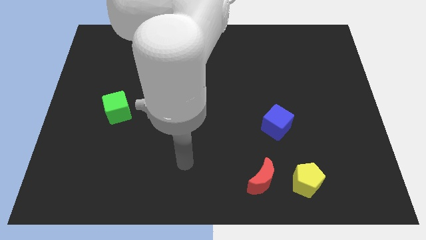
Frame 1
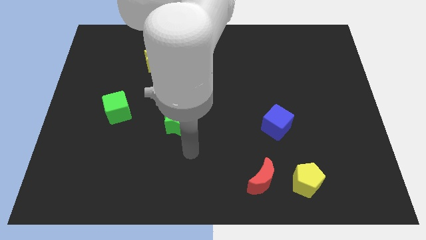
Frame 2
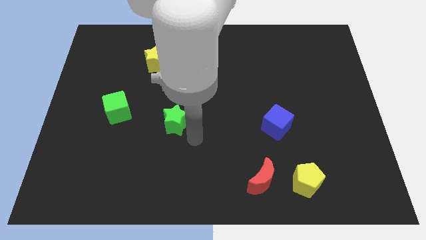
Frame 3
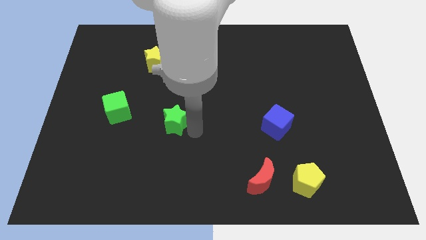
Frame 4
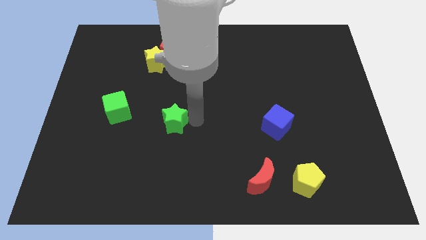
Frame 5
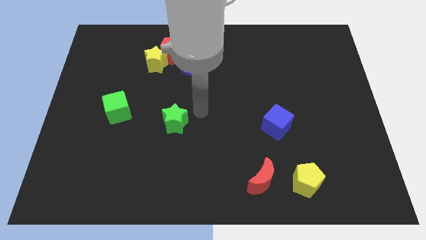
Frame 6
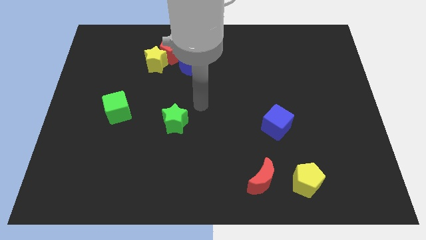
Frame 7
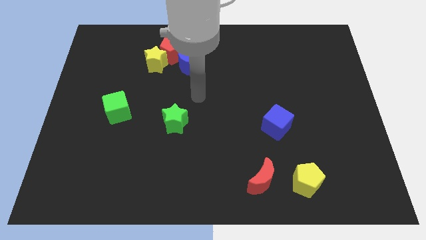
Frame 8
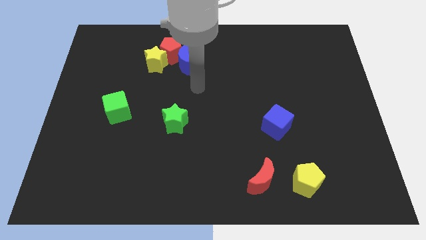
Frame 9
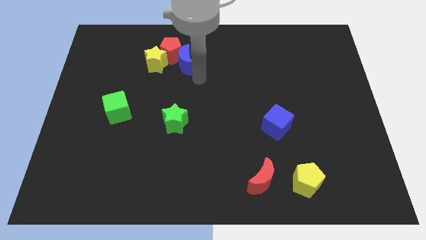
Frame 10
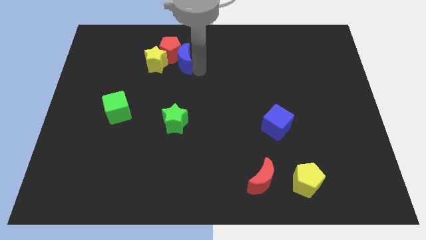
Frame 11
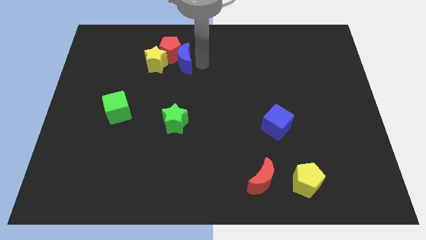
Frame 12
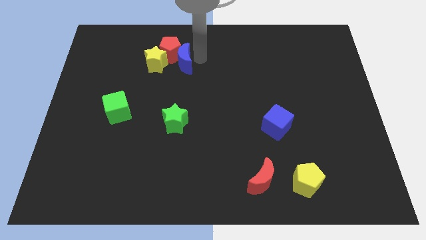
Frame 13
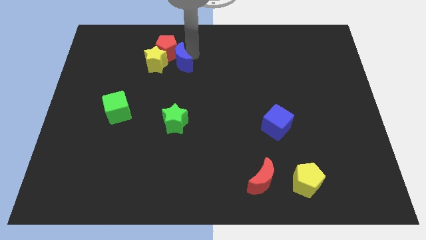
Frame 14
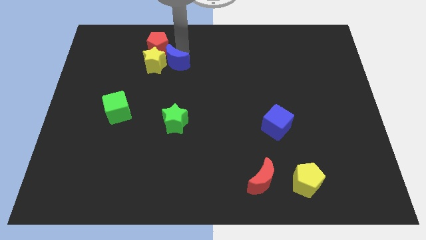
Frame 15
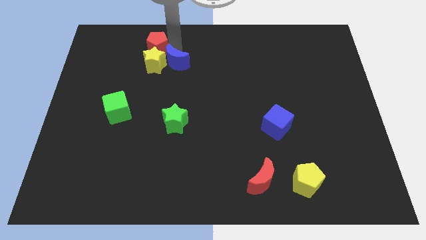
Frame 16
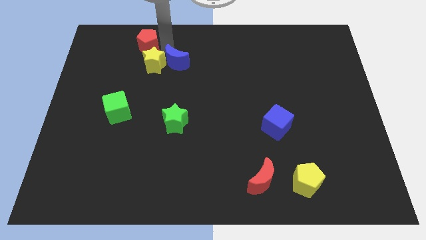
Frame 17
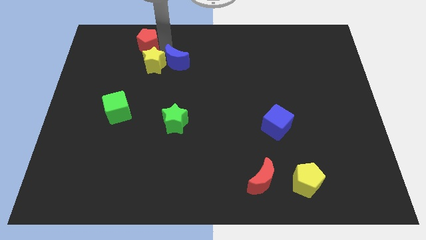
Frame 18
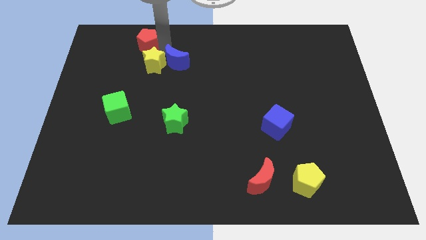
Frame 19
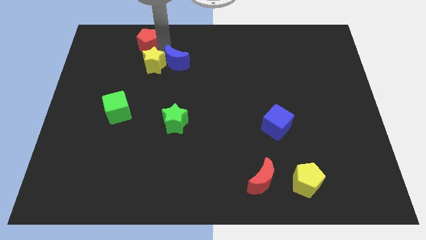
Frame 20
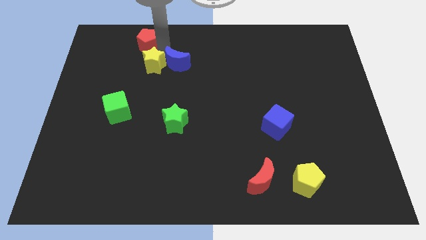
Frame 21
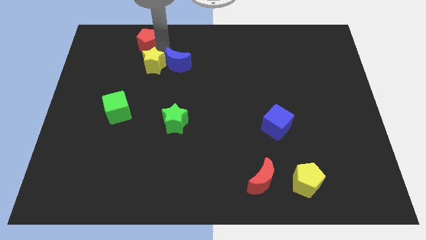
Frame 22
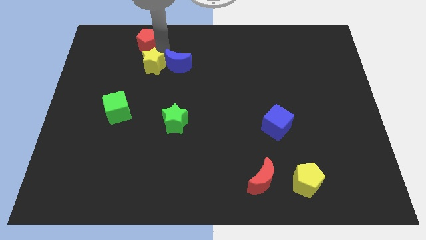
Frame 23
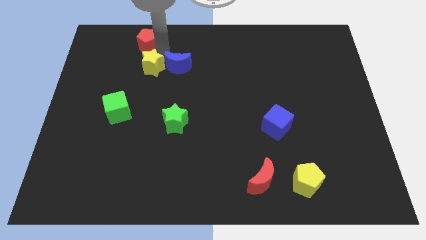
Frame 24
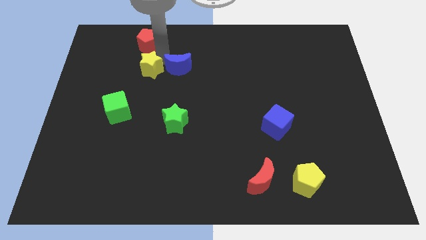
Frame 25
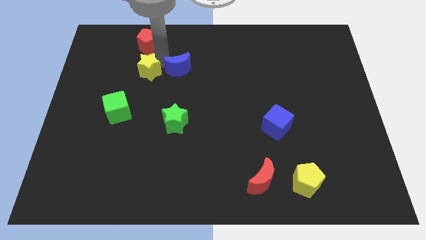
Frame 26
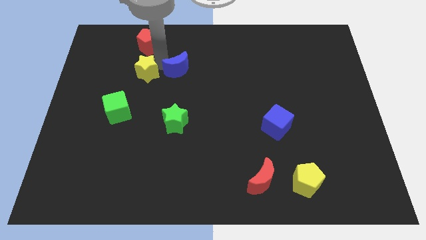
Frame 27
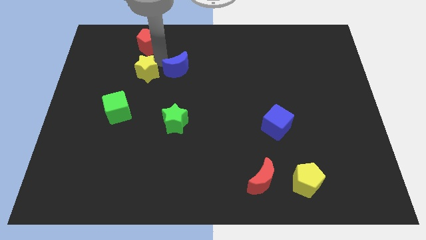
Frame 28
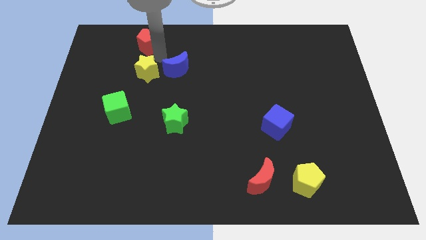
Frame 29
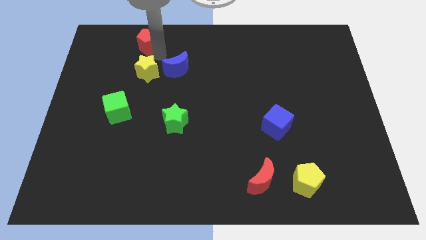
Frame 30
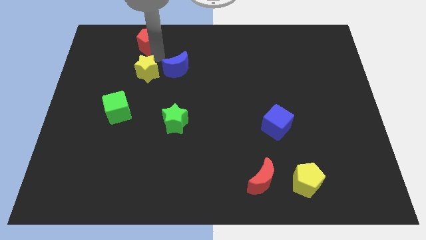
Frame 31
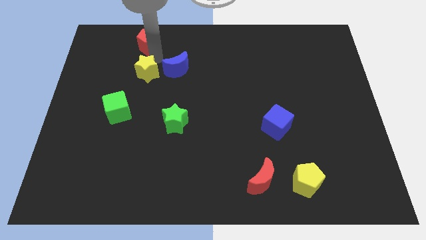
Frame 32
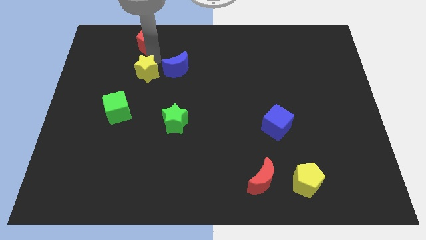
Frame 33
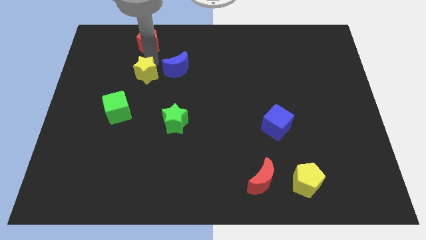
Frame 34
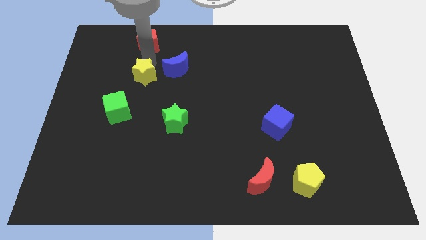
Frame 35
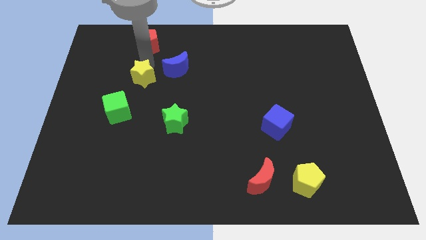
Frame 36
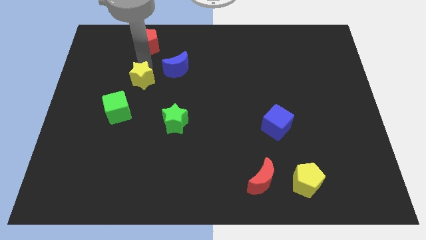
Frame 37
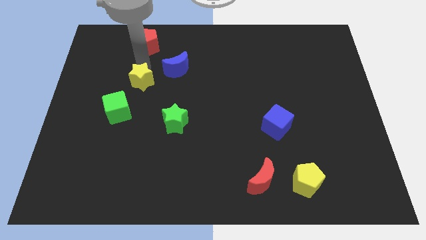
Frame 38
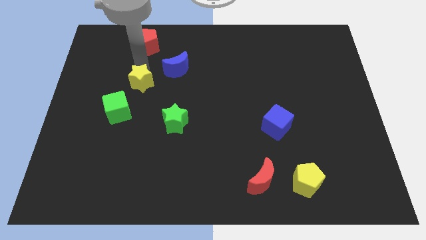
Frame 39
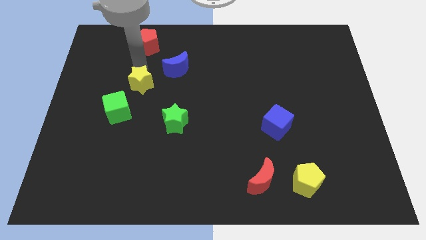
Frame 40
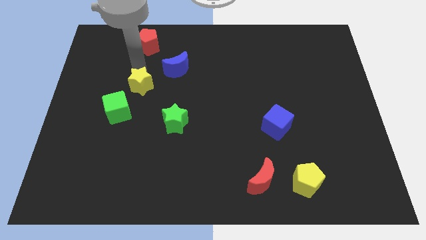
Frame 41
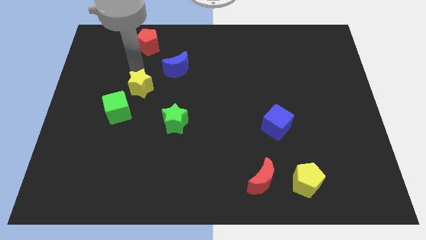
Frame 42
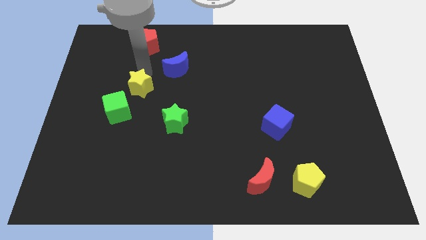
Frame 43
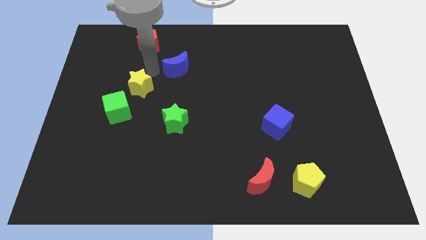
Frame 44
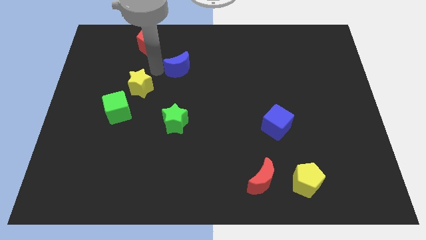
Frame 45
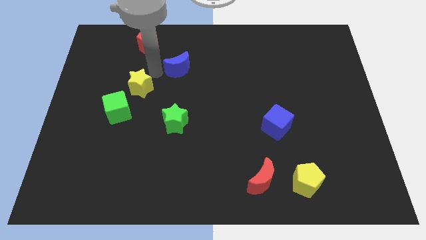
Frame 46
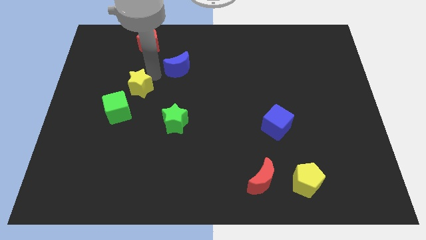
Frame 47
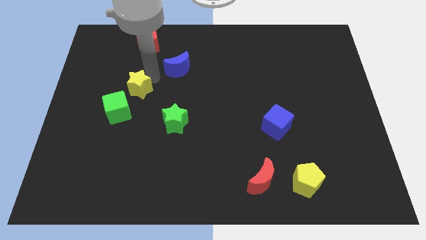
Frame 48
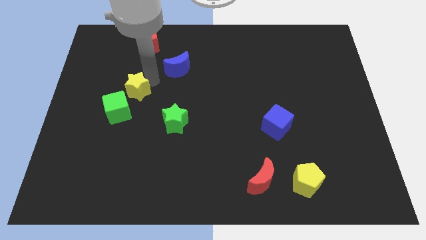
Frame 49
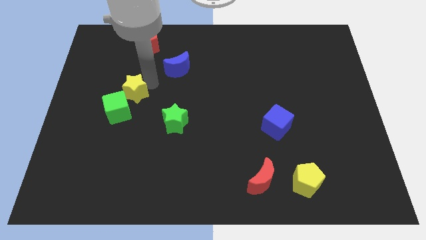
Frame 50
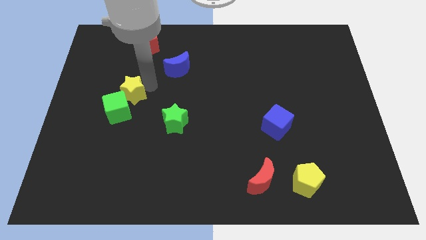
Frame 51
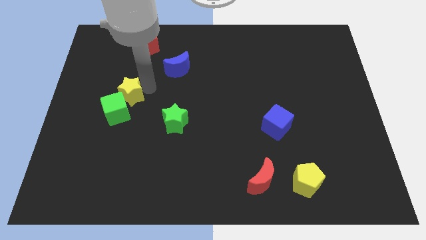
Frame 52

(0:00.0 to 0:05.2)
push the yellow star to the green cube

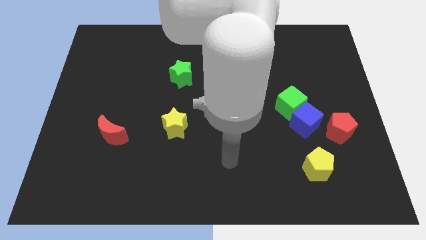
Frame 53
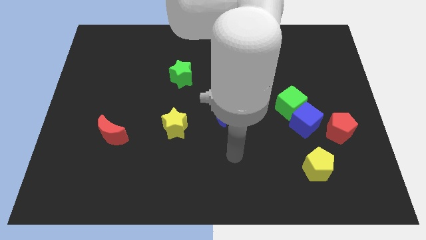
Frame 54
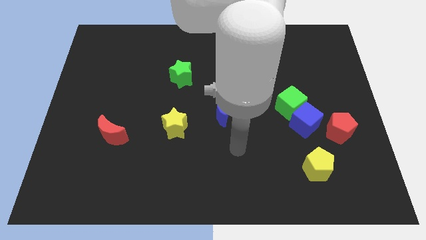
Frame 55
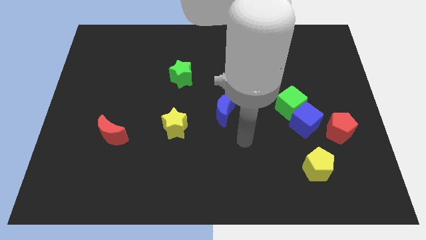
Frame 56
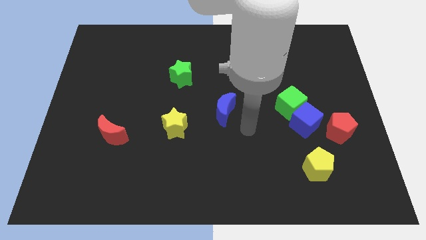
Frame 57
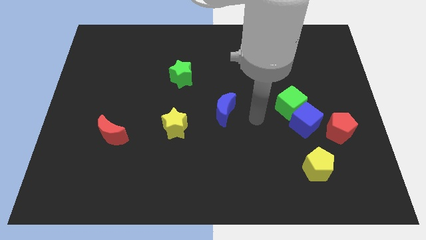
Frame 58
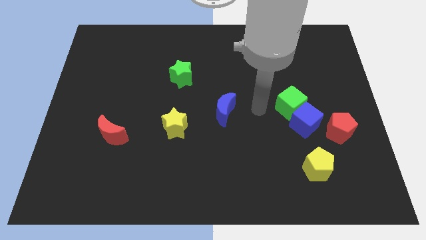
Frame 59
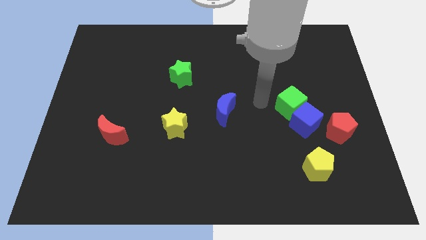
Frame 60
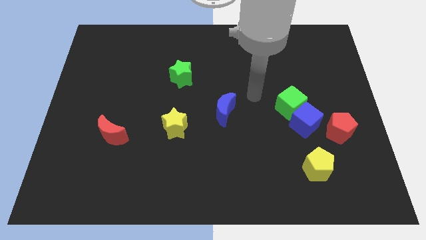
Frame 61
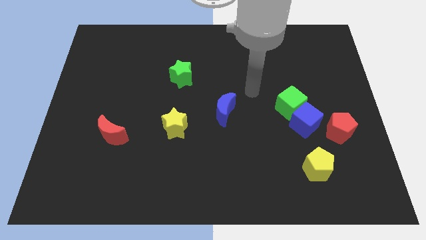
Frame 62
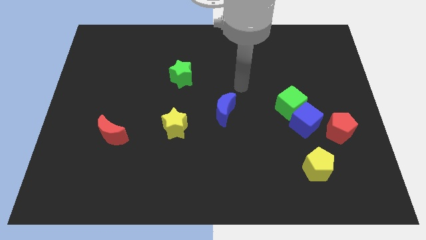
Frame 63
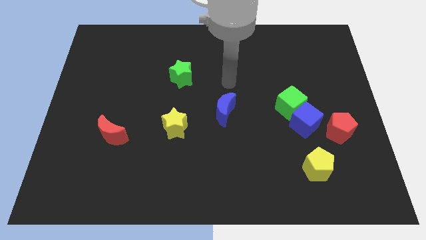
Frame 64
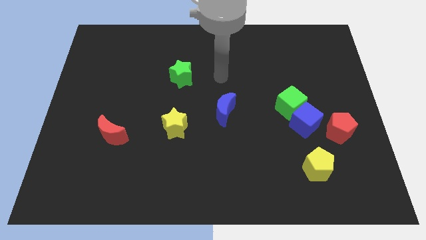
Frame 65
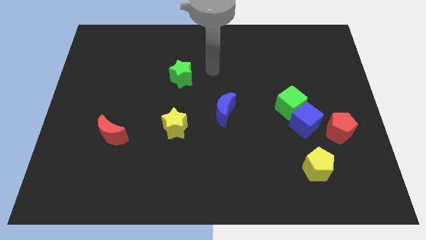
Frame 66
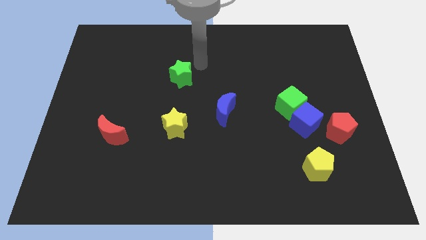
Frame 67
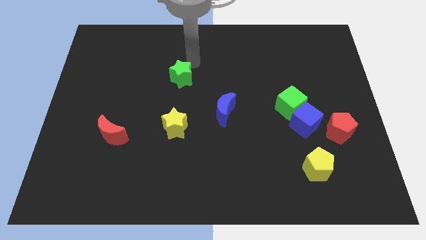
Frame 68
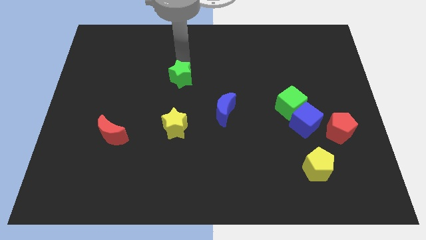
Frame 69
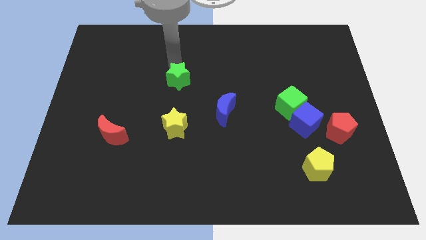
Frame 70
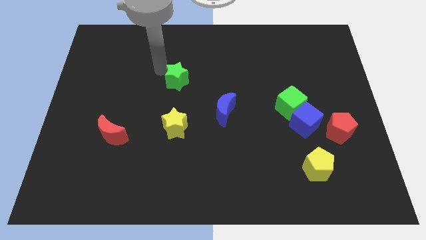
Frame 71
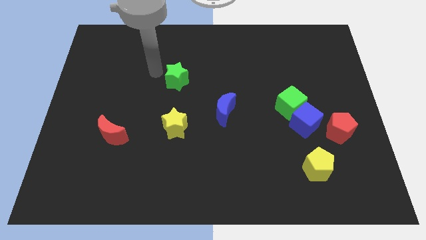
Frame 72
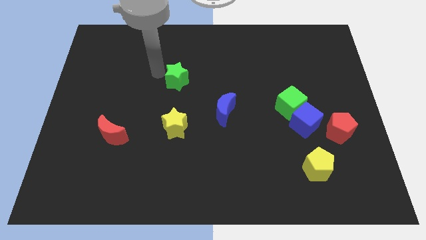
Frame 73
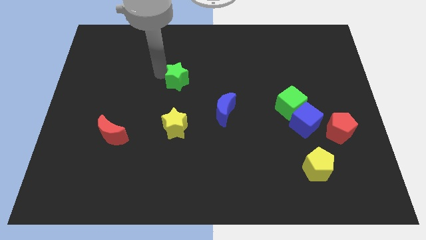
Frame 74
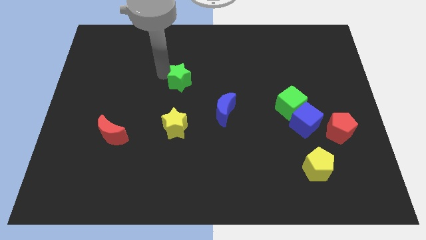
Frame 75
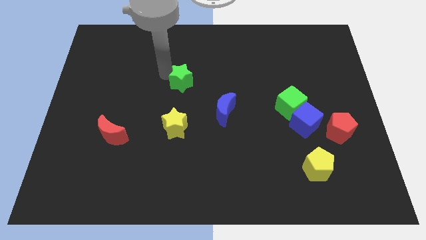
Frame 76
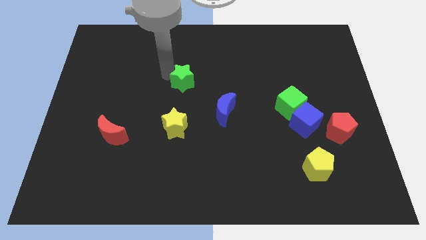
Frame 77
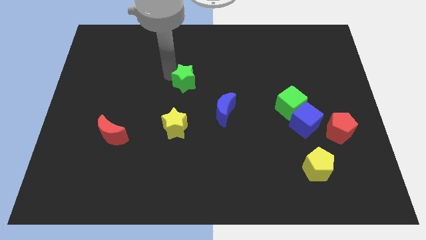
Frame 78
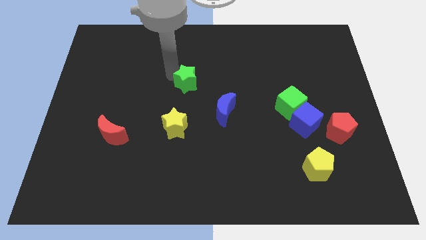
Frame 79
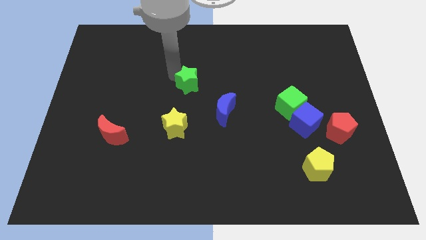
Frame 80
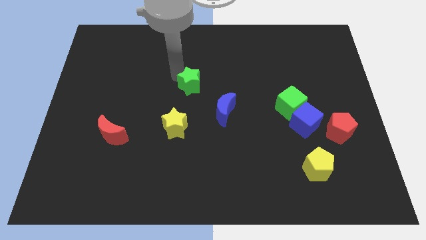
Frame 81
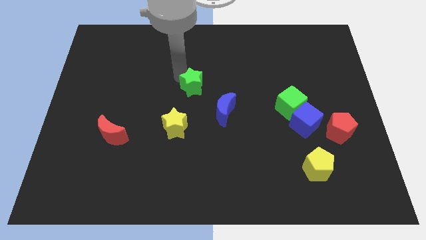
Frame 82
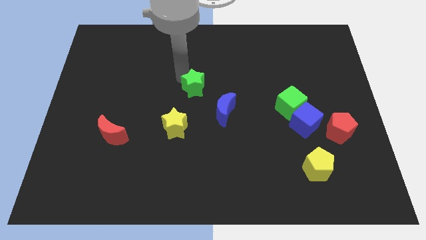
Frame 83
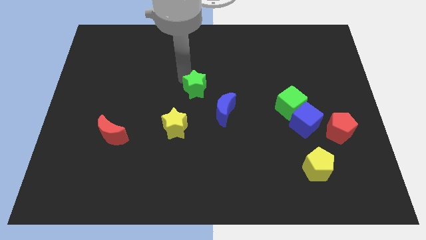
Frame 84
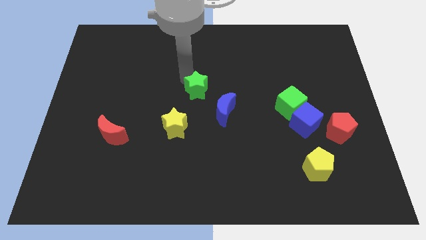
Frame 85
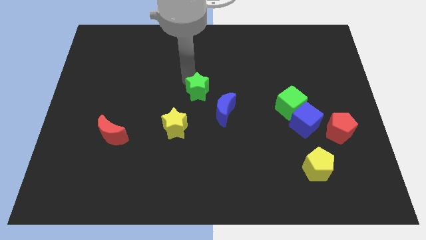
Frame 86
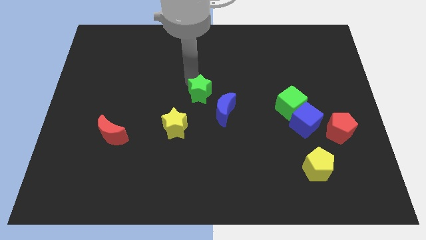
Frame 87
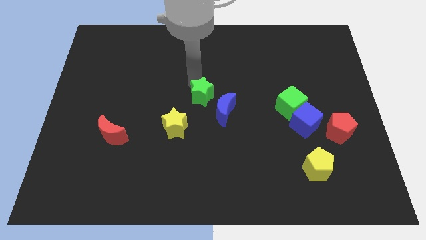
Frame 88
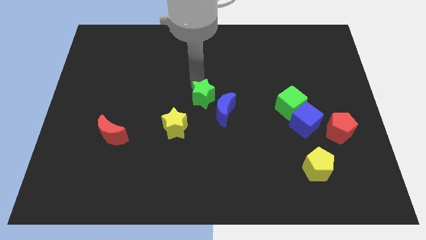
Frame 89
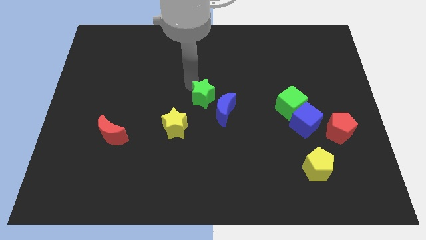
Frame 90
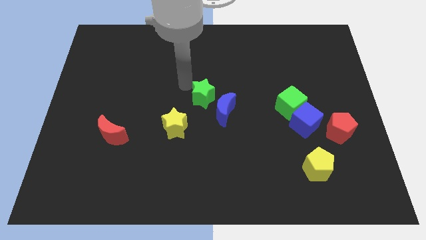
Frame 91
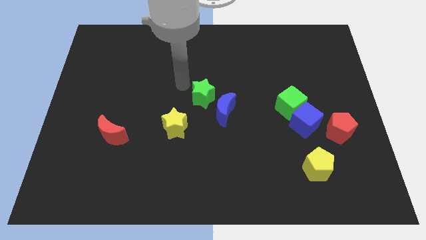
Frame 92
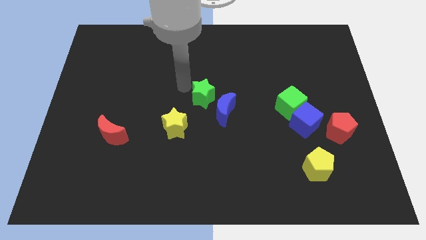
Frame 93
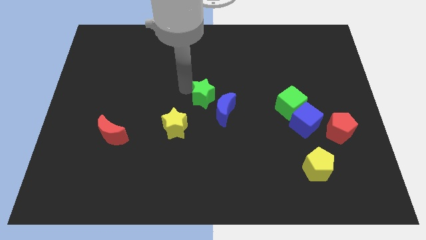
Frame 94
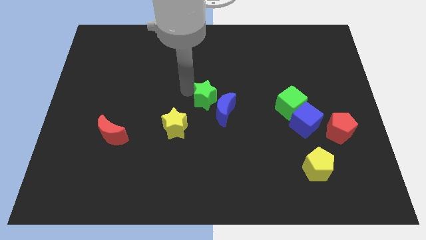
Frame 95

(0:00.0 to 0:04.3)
put the green star to the blue moon
